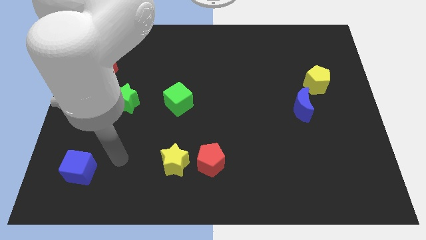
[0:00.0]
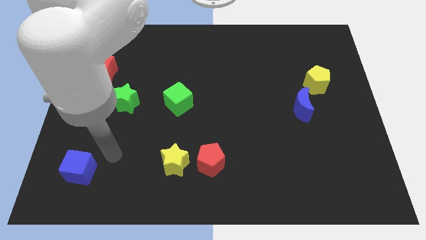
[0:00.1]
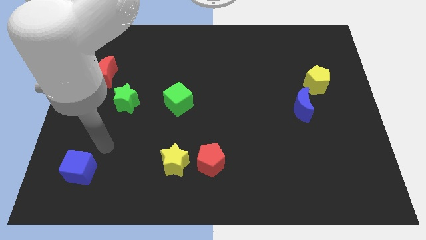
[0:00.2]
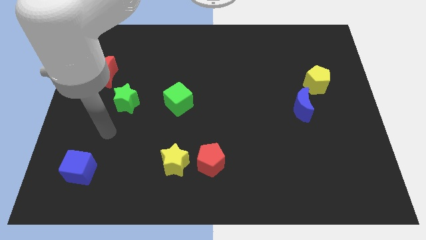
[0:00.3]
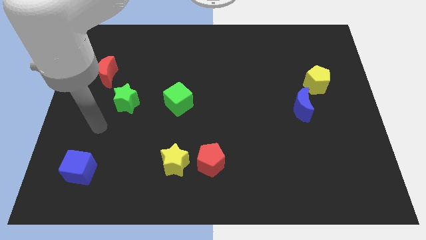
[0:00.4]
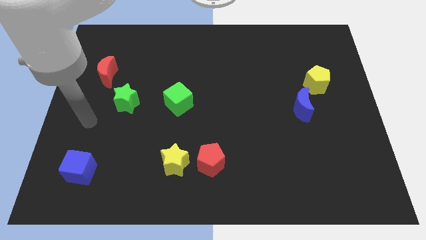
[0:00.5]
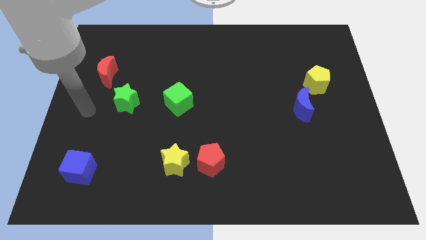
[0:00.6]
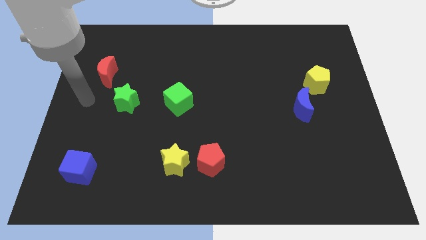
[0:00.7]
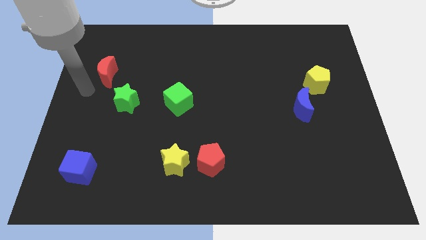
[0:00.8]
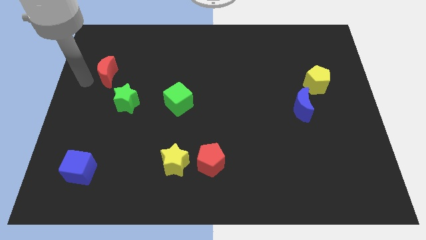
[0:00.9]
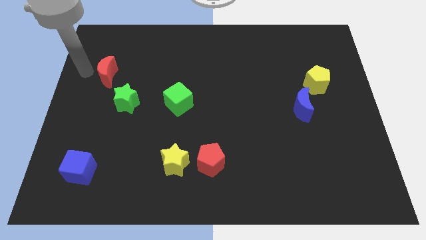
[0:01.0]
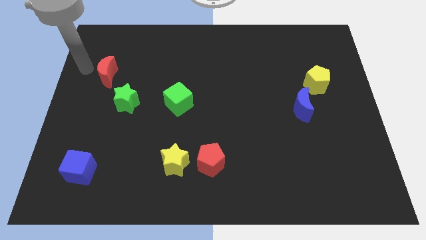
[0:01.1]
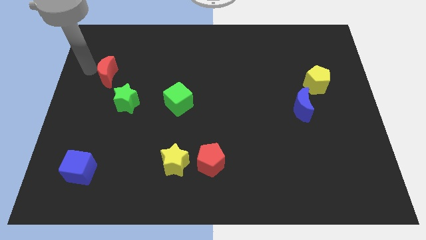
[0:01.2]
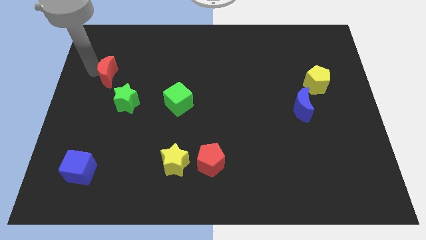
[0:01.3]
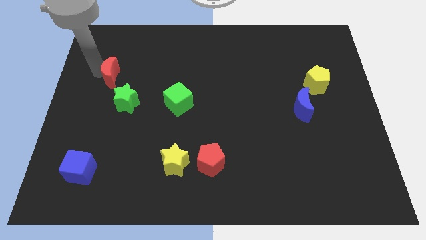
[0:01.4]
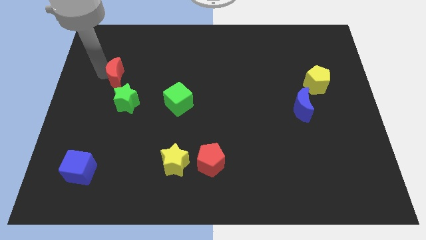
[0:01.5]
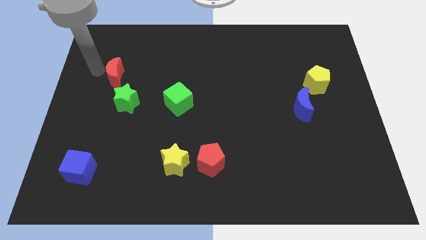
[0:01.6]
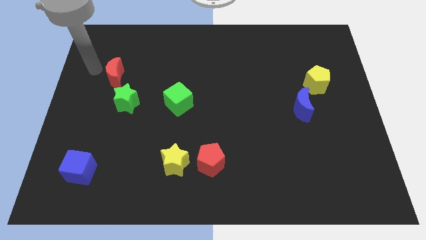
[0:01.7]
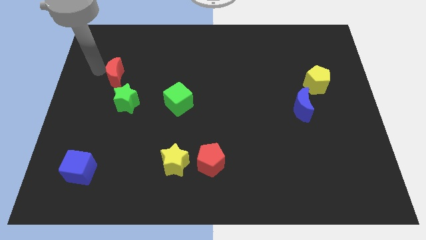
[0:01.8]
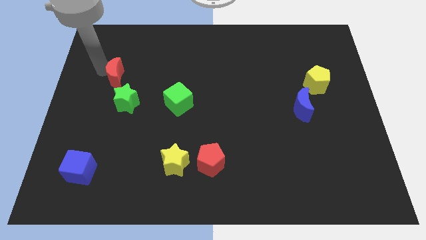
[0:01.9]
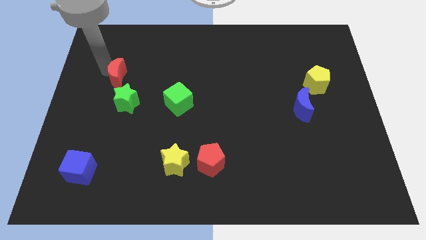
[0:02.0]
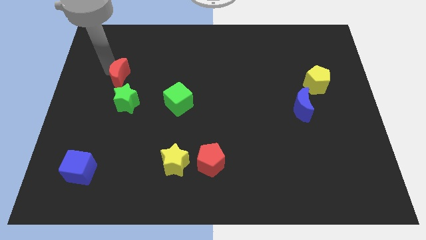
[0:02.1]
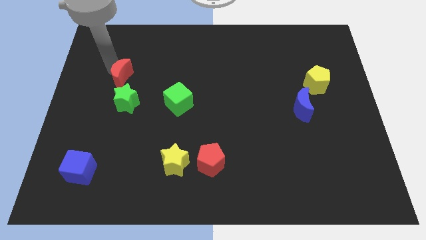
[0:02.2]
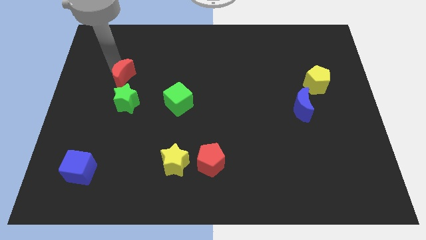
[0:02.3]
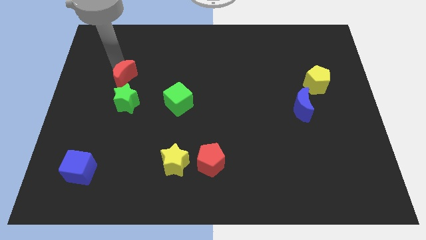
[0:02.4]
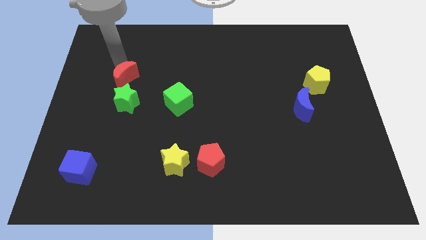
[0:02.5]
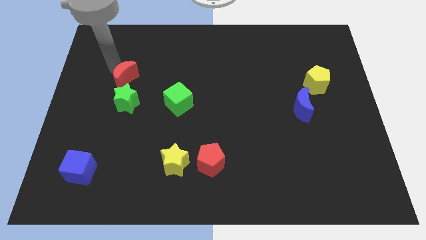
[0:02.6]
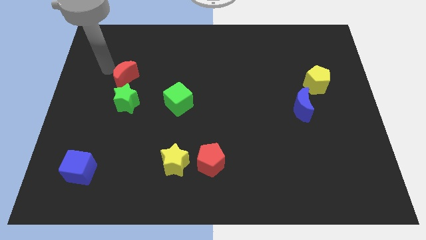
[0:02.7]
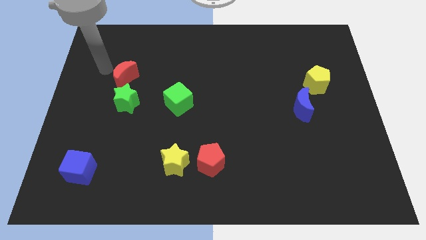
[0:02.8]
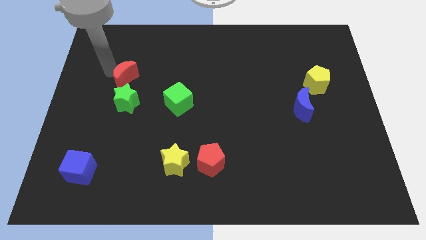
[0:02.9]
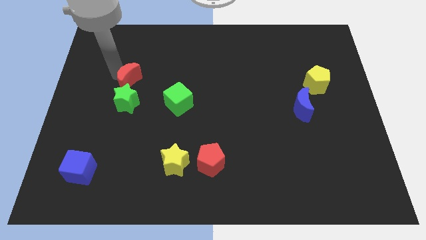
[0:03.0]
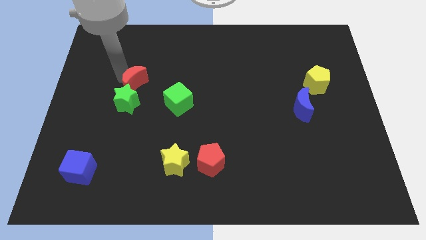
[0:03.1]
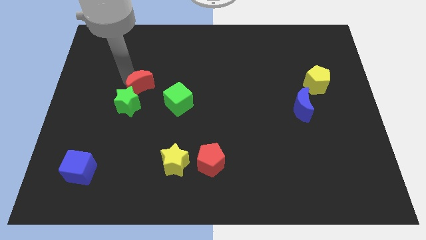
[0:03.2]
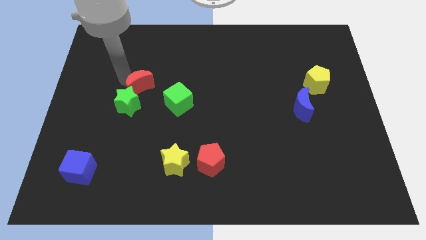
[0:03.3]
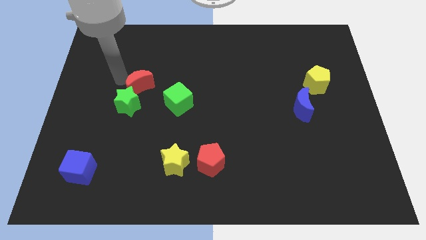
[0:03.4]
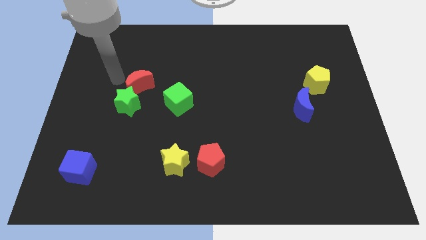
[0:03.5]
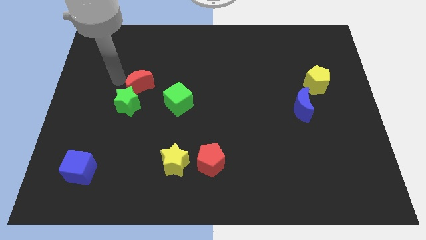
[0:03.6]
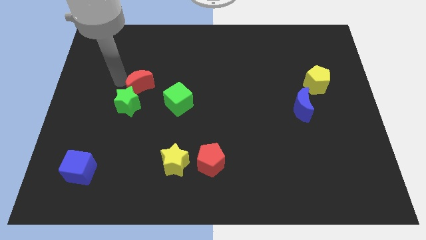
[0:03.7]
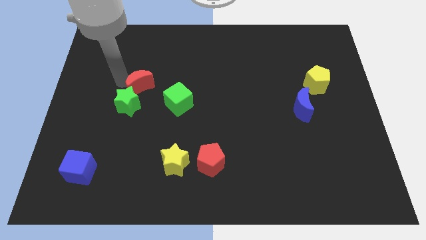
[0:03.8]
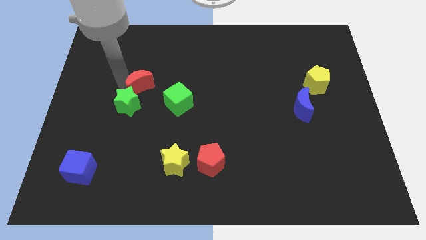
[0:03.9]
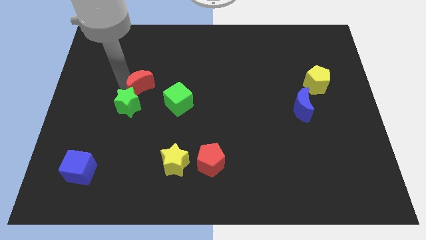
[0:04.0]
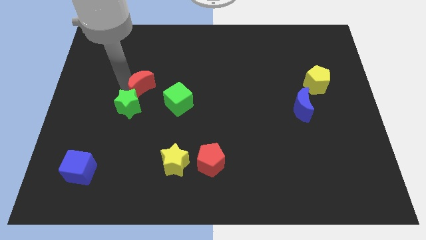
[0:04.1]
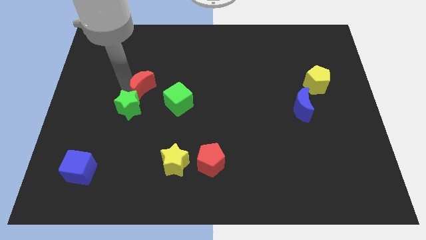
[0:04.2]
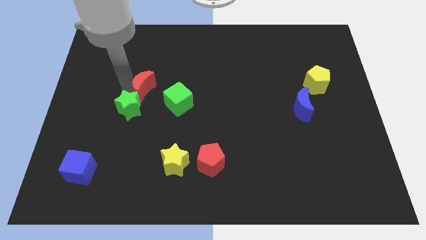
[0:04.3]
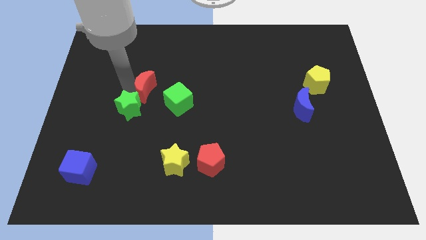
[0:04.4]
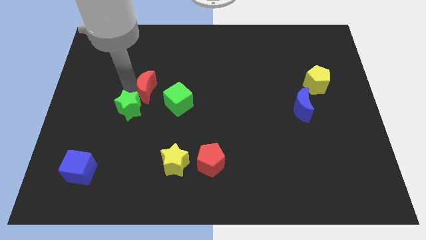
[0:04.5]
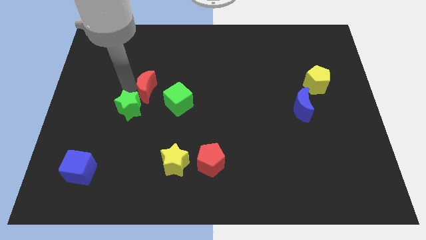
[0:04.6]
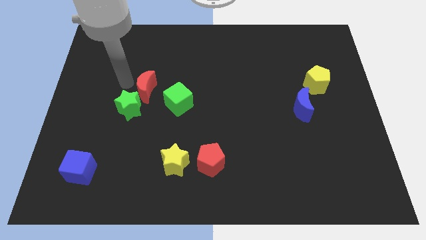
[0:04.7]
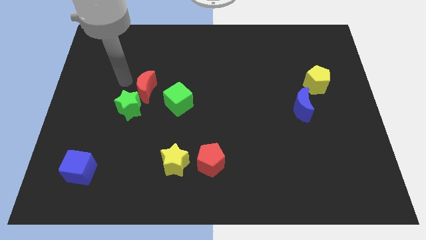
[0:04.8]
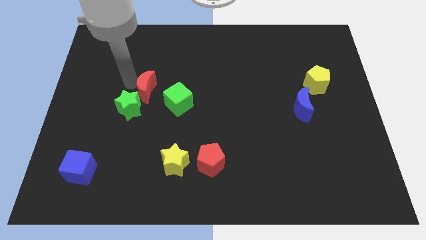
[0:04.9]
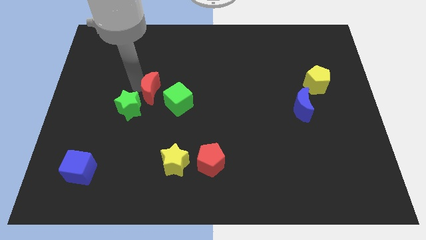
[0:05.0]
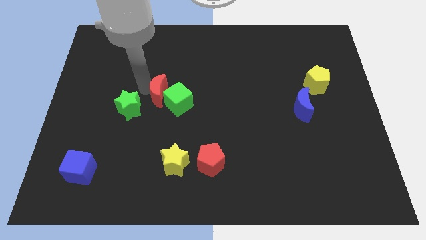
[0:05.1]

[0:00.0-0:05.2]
move the red moon next to the green cube

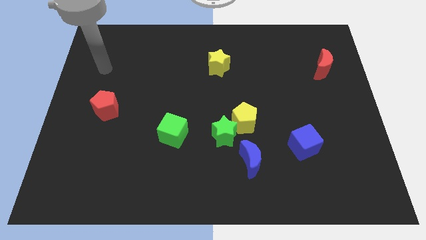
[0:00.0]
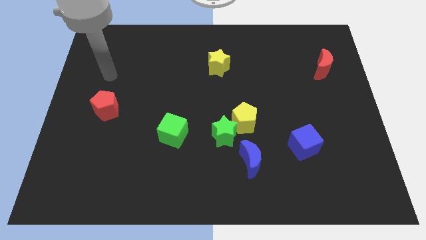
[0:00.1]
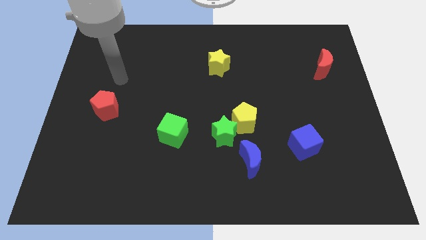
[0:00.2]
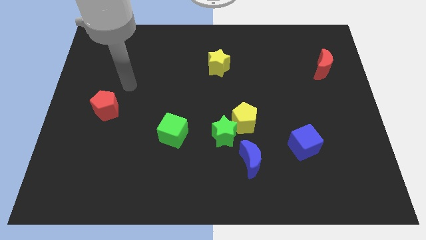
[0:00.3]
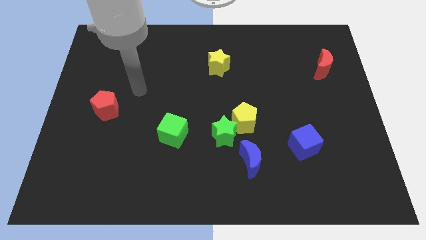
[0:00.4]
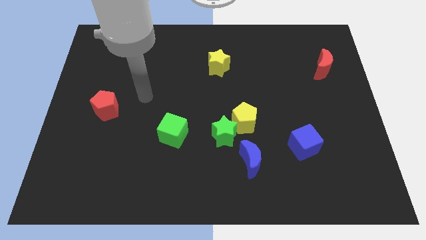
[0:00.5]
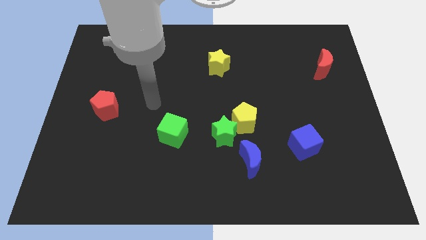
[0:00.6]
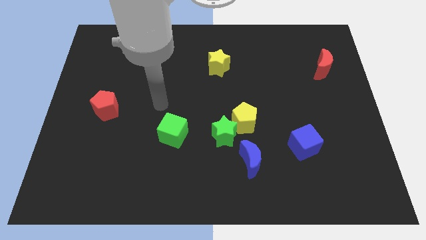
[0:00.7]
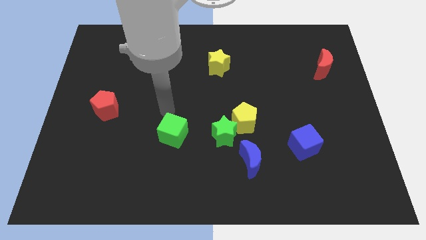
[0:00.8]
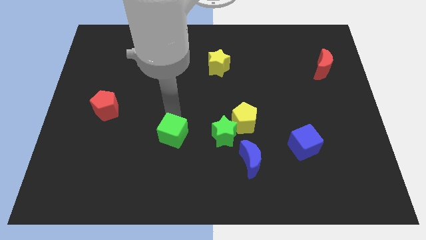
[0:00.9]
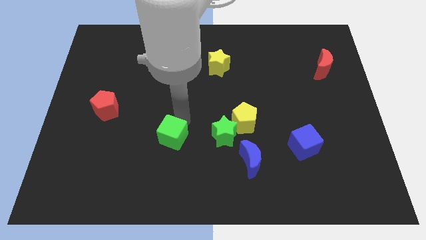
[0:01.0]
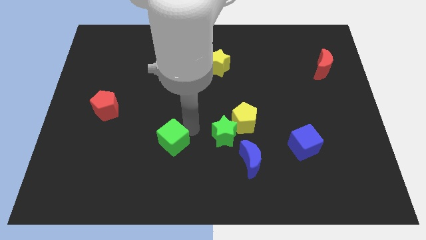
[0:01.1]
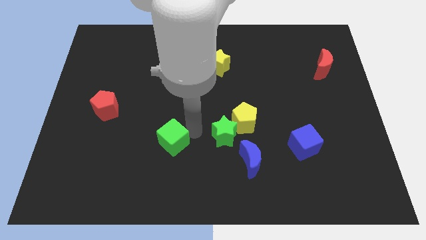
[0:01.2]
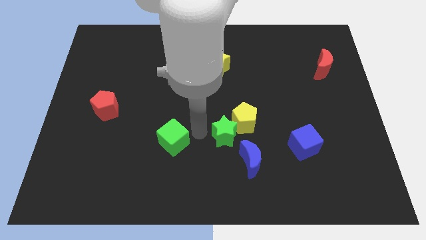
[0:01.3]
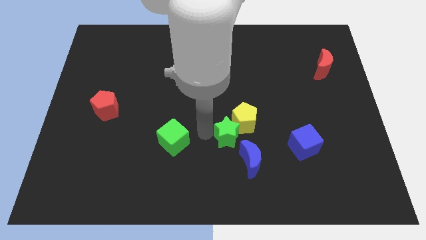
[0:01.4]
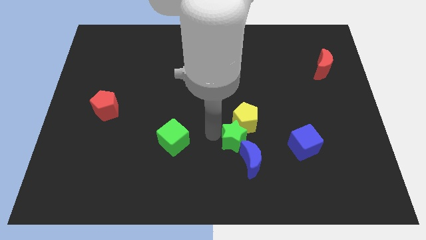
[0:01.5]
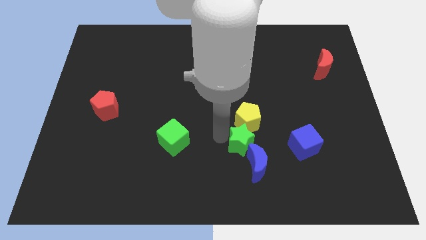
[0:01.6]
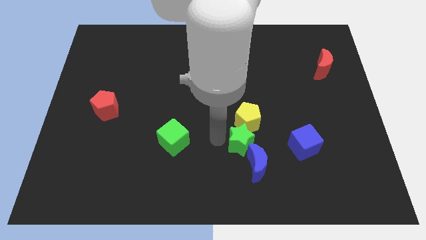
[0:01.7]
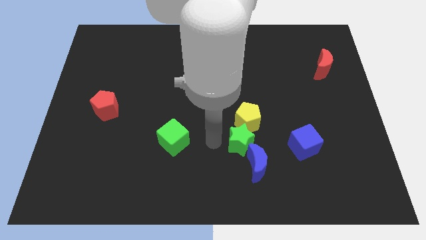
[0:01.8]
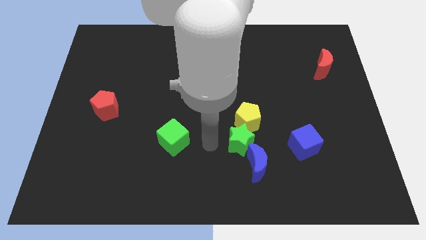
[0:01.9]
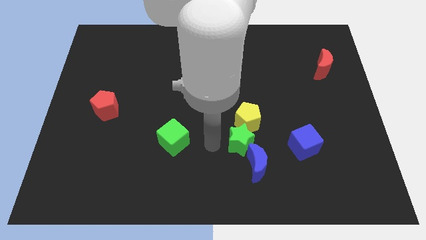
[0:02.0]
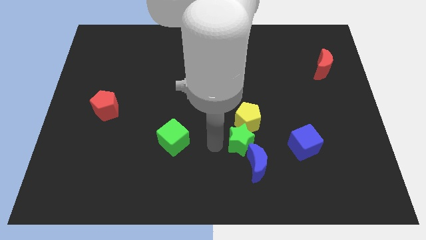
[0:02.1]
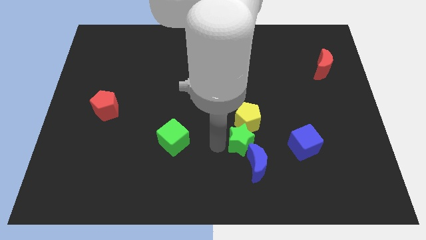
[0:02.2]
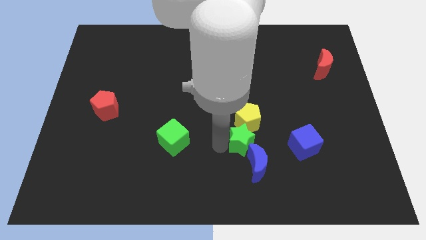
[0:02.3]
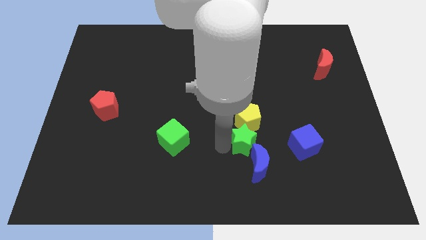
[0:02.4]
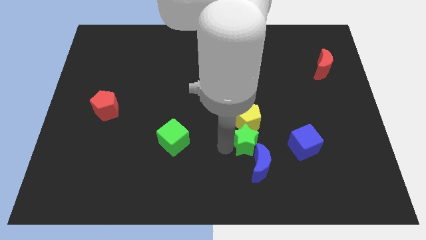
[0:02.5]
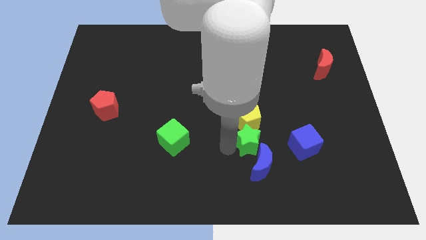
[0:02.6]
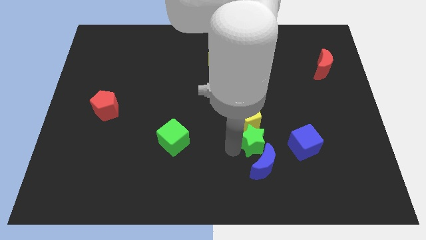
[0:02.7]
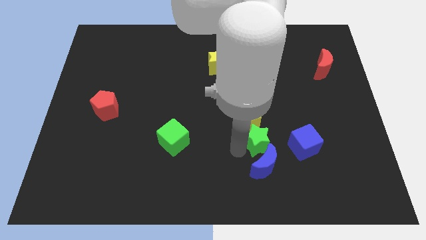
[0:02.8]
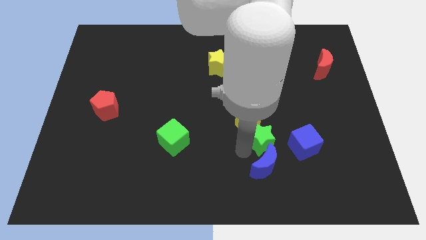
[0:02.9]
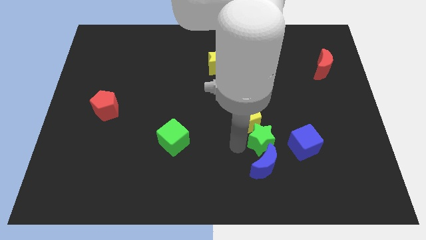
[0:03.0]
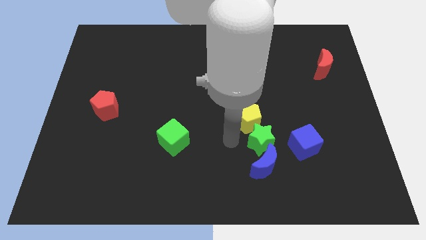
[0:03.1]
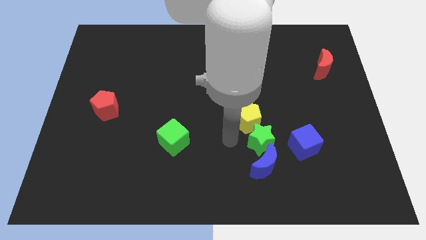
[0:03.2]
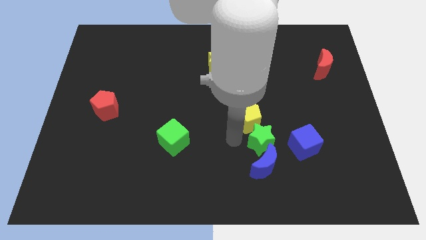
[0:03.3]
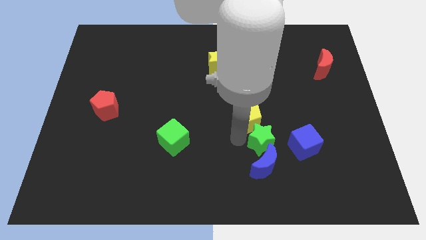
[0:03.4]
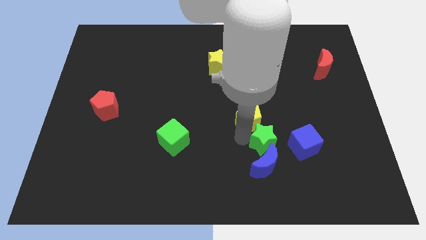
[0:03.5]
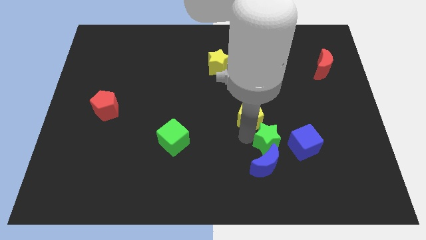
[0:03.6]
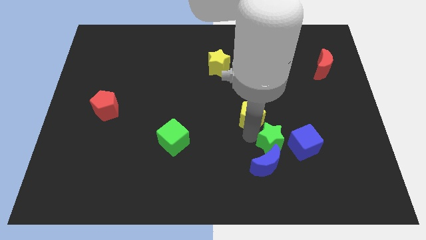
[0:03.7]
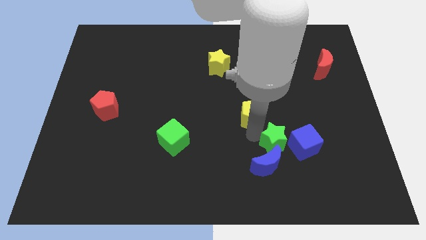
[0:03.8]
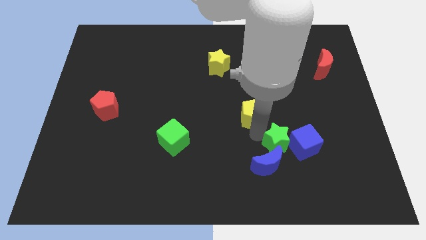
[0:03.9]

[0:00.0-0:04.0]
put the green star to the blue cube
